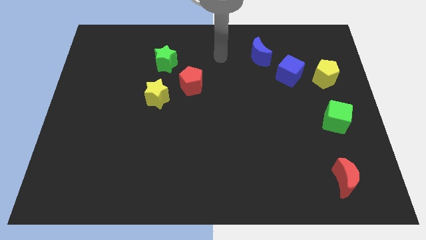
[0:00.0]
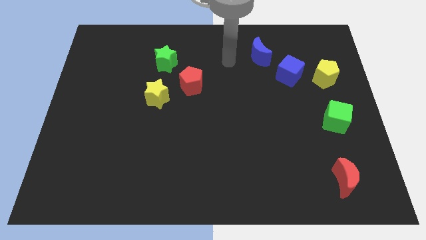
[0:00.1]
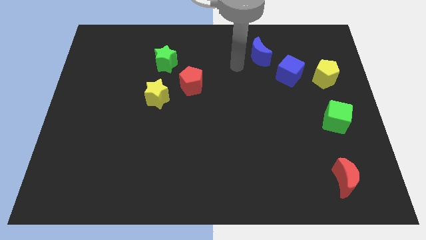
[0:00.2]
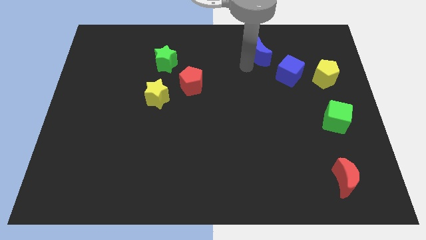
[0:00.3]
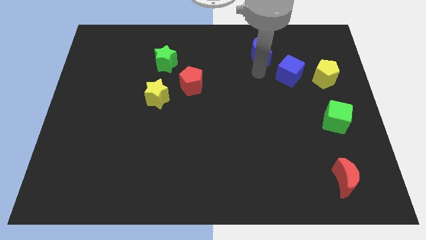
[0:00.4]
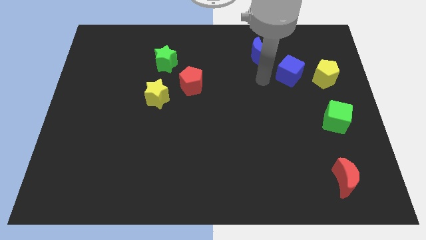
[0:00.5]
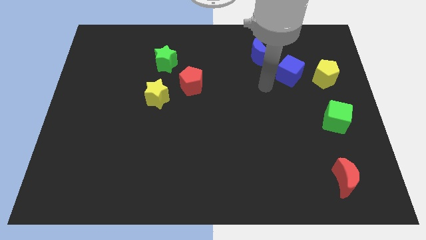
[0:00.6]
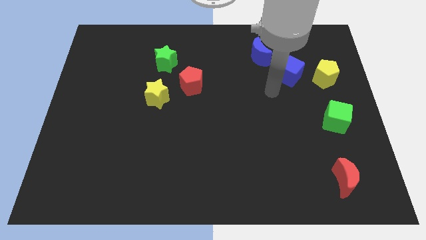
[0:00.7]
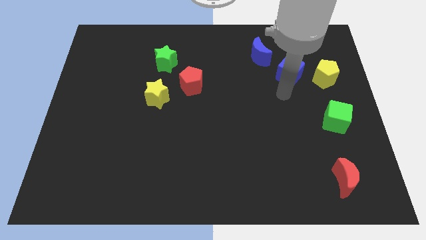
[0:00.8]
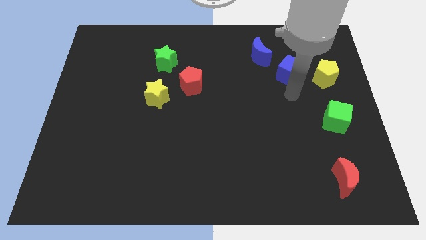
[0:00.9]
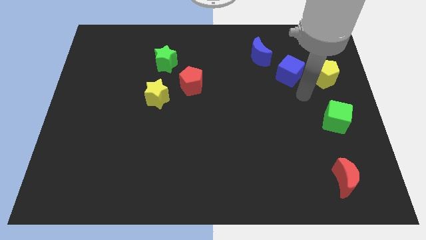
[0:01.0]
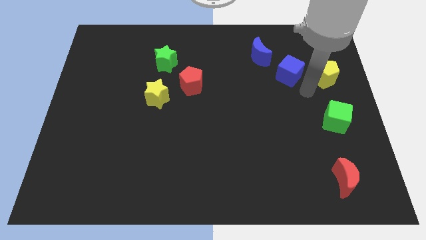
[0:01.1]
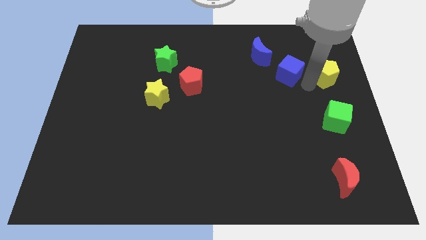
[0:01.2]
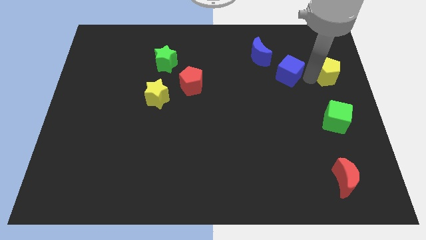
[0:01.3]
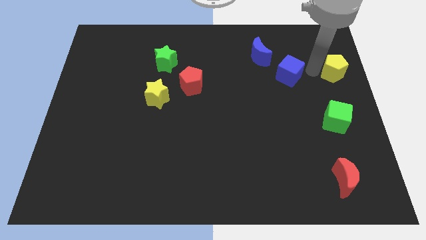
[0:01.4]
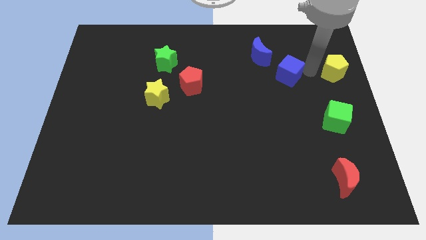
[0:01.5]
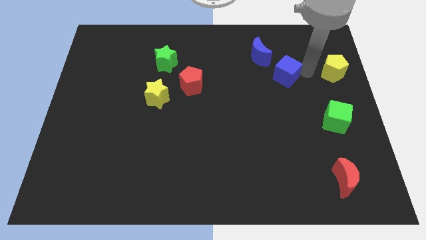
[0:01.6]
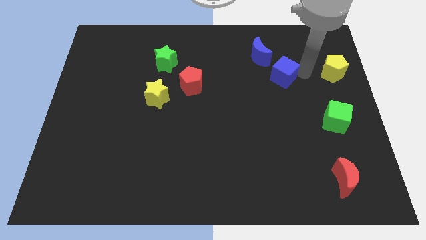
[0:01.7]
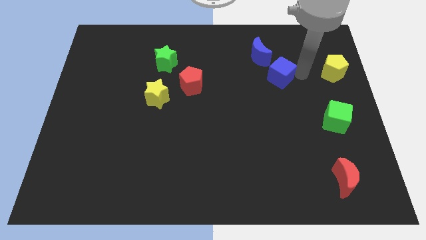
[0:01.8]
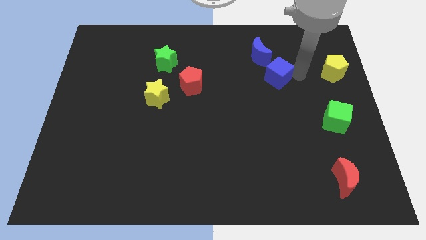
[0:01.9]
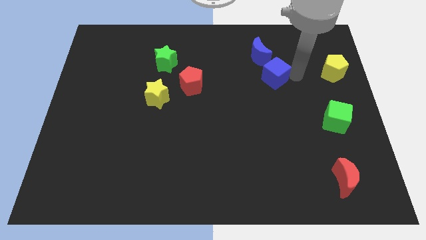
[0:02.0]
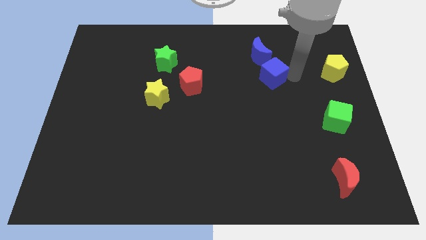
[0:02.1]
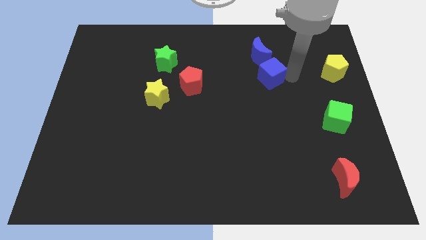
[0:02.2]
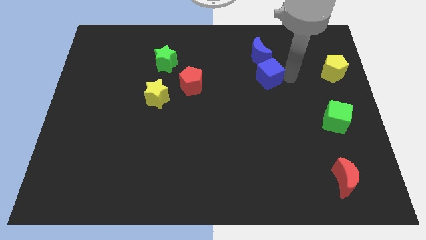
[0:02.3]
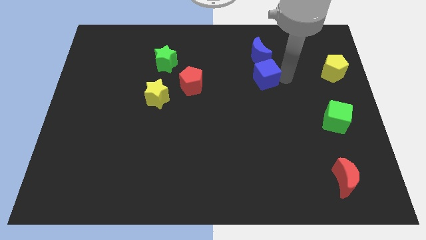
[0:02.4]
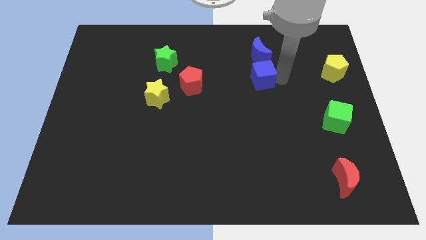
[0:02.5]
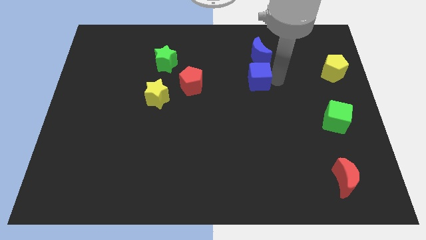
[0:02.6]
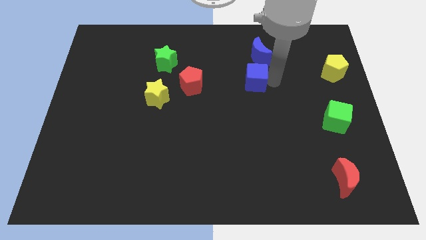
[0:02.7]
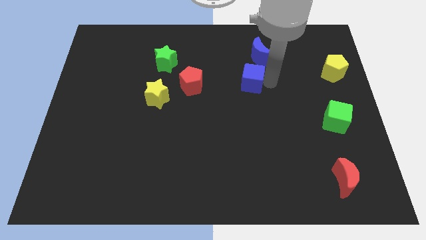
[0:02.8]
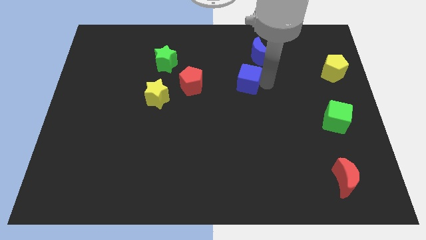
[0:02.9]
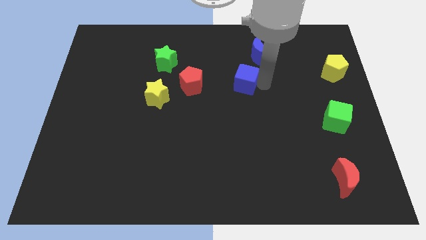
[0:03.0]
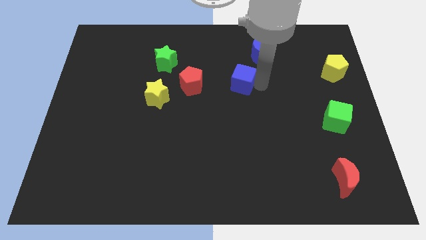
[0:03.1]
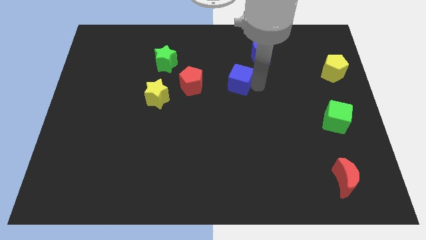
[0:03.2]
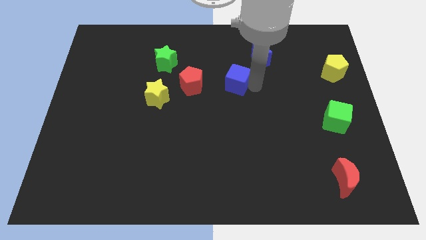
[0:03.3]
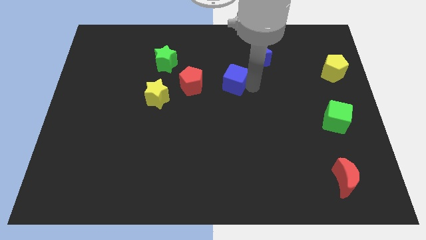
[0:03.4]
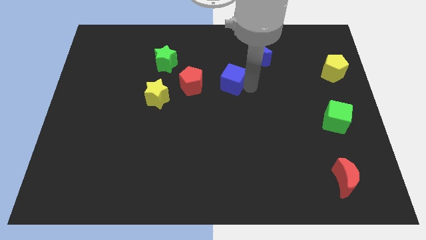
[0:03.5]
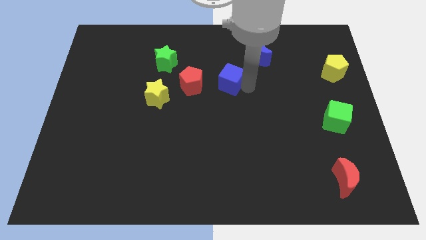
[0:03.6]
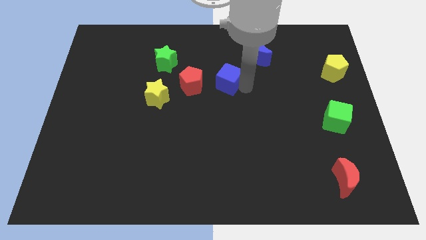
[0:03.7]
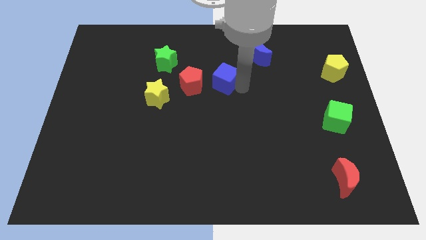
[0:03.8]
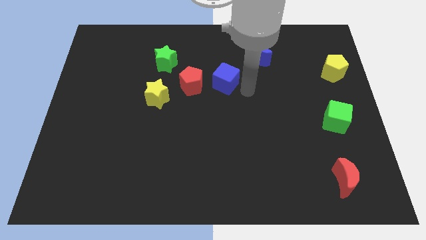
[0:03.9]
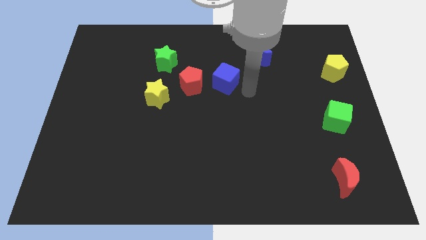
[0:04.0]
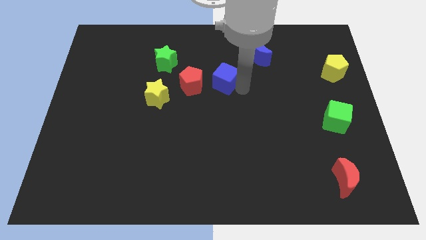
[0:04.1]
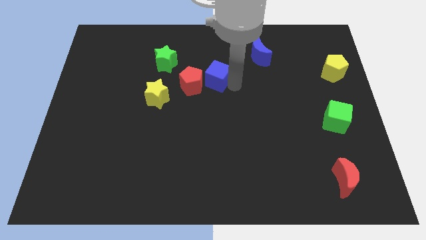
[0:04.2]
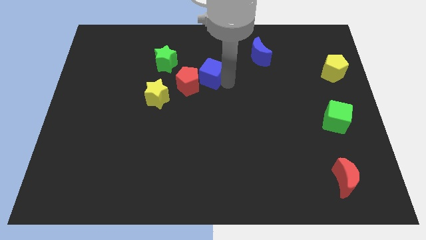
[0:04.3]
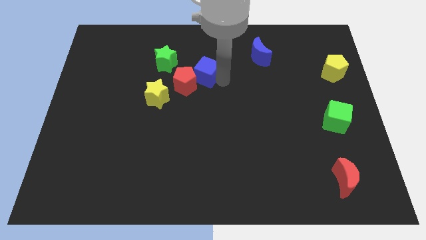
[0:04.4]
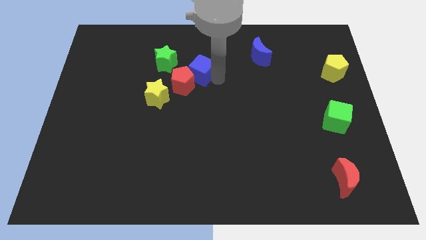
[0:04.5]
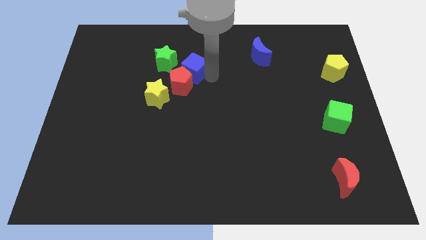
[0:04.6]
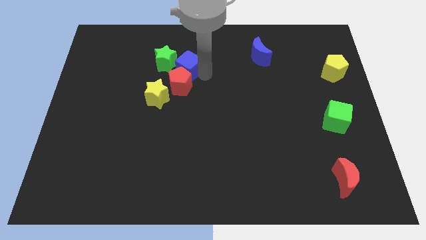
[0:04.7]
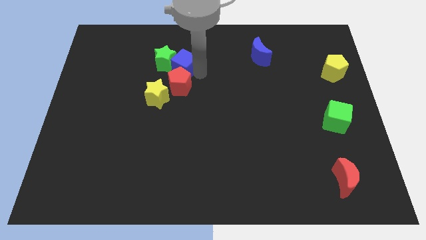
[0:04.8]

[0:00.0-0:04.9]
slide the blue cube close to the green star

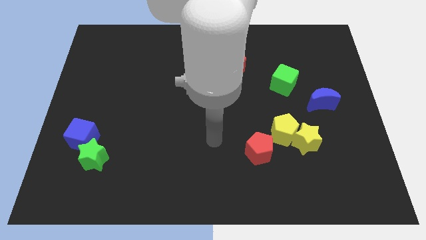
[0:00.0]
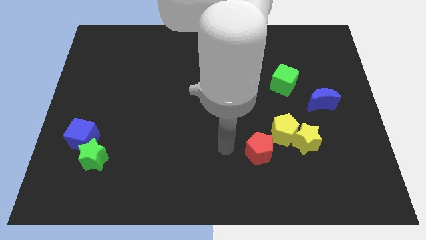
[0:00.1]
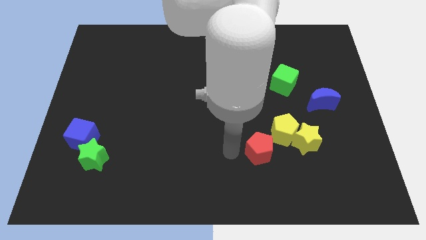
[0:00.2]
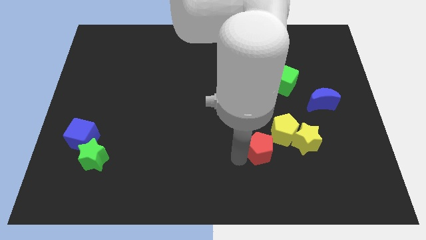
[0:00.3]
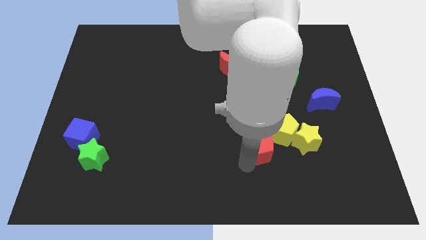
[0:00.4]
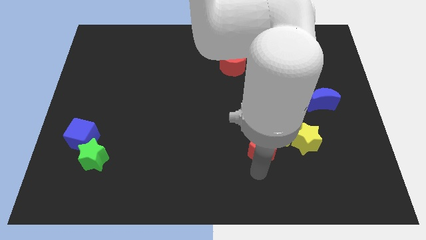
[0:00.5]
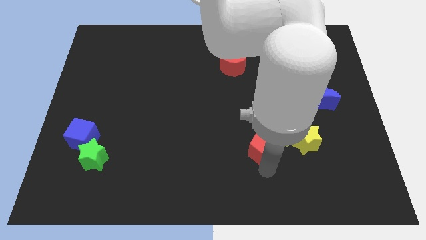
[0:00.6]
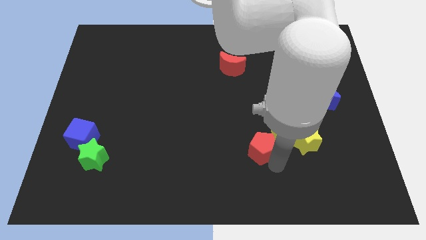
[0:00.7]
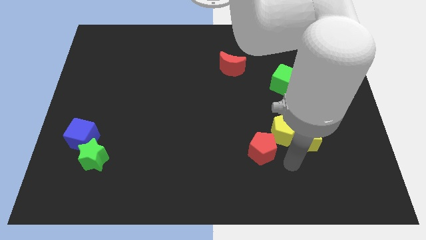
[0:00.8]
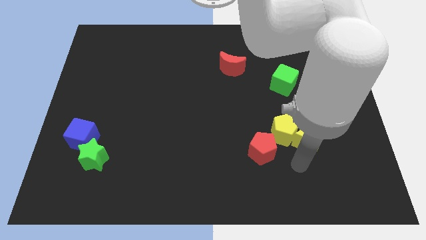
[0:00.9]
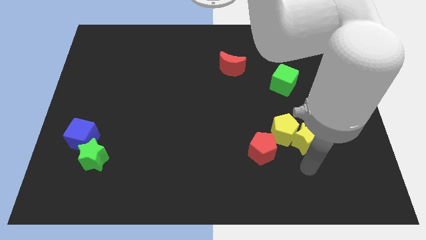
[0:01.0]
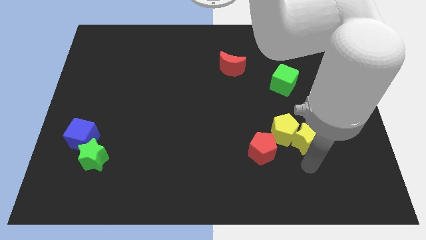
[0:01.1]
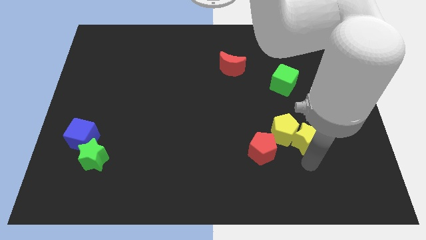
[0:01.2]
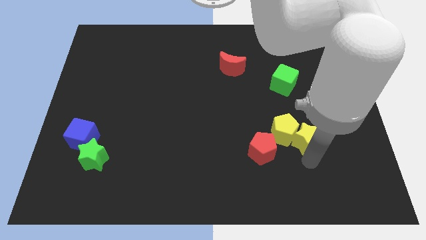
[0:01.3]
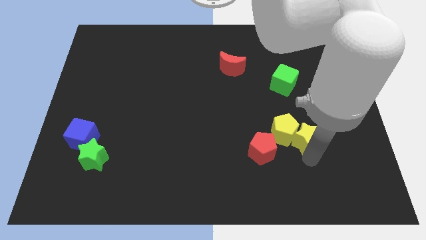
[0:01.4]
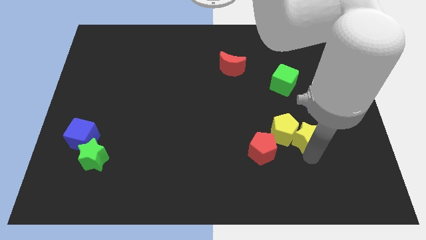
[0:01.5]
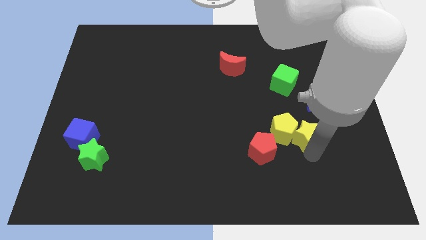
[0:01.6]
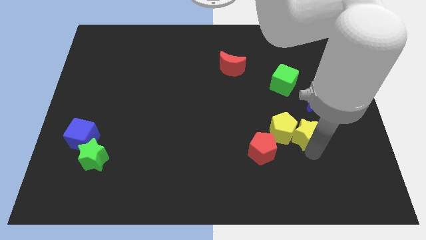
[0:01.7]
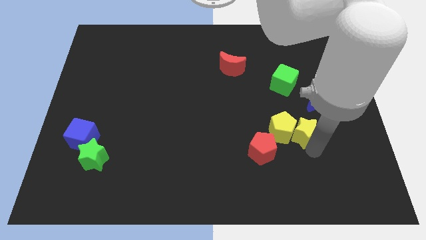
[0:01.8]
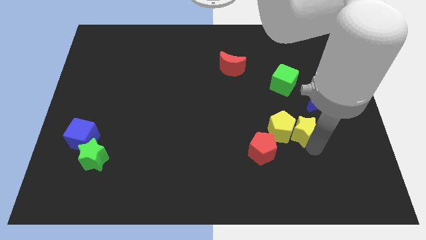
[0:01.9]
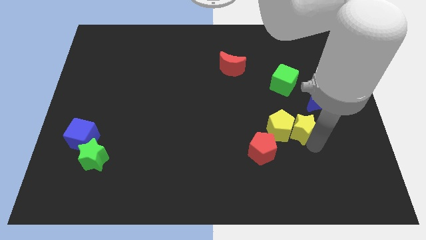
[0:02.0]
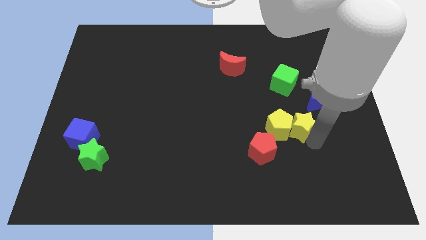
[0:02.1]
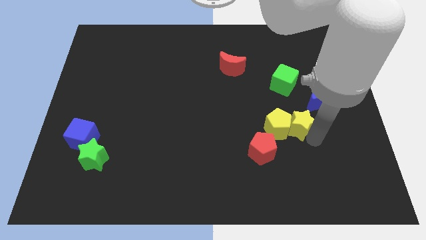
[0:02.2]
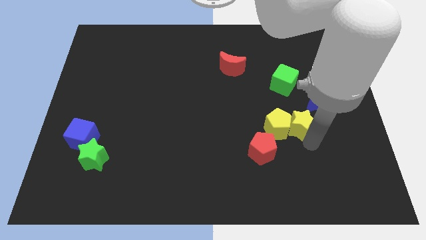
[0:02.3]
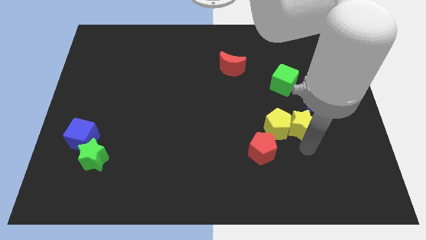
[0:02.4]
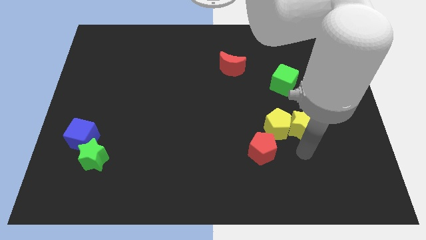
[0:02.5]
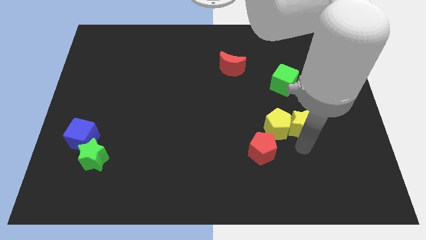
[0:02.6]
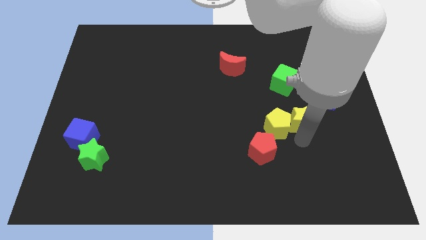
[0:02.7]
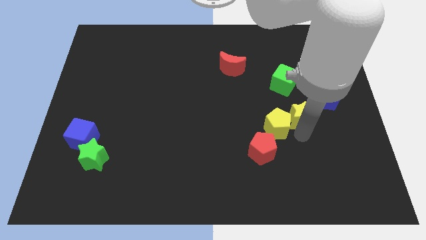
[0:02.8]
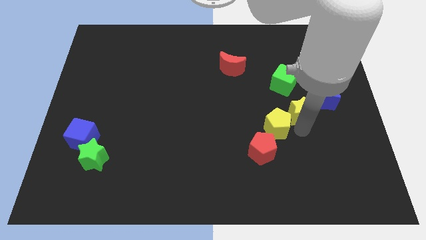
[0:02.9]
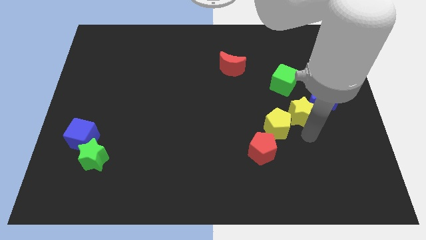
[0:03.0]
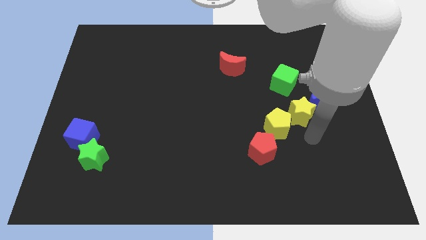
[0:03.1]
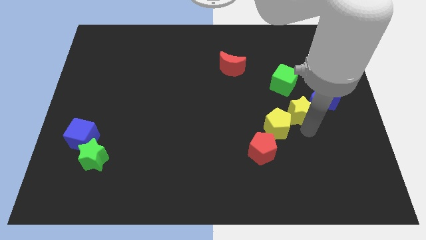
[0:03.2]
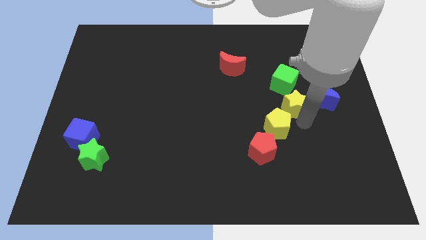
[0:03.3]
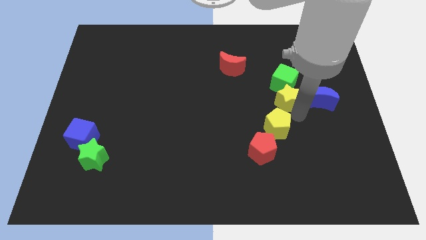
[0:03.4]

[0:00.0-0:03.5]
move the yellow star close to the green cube
